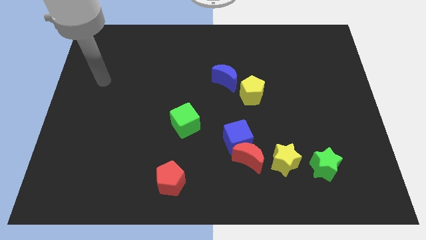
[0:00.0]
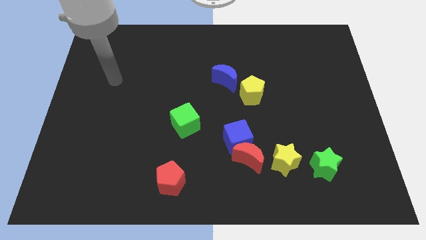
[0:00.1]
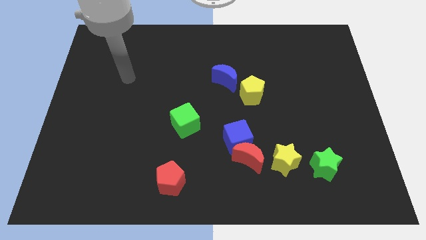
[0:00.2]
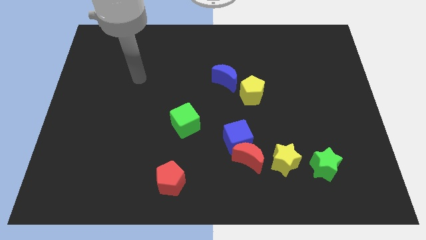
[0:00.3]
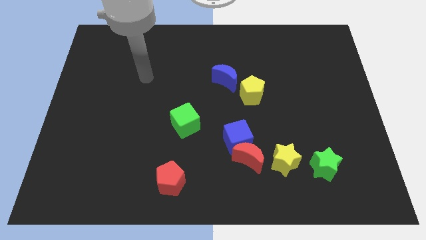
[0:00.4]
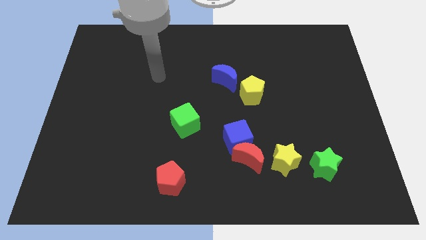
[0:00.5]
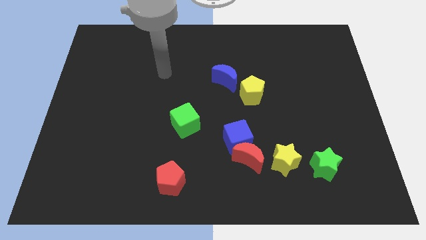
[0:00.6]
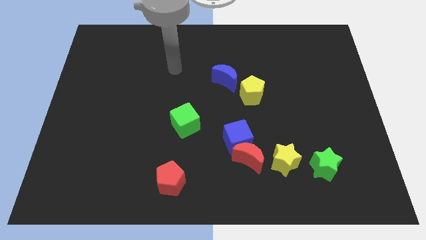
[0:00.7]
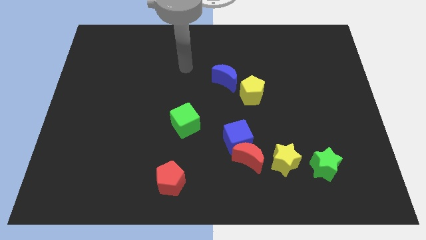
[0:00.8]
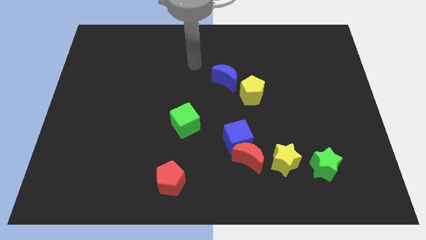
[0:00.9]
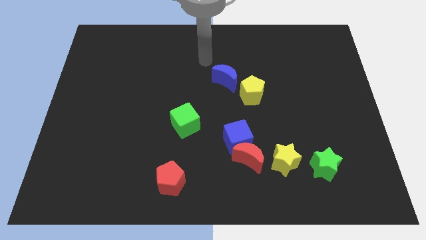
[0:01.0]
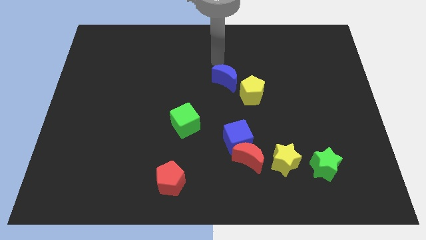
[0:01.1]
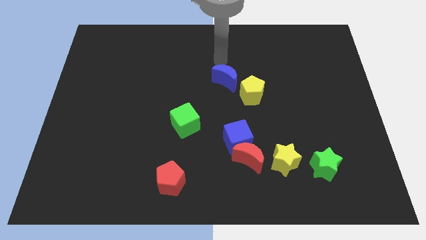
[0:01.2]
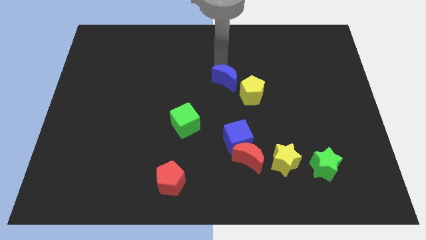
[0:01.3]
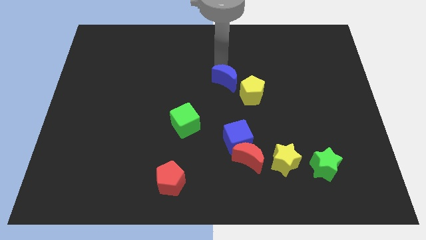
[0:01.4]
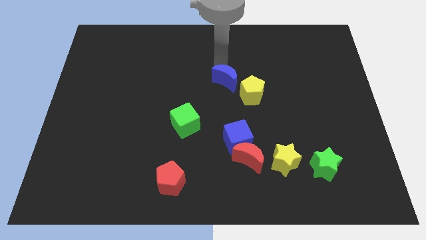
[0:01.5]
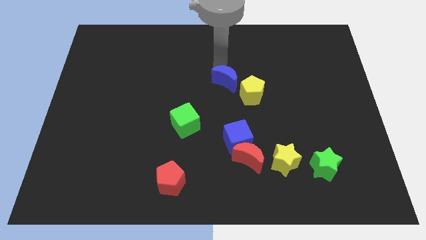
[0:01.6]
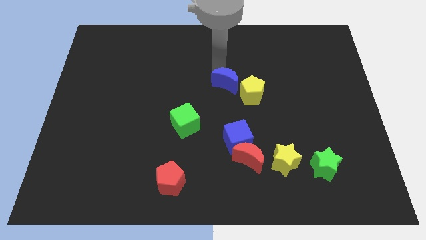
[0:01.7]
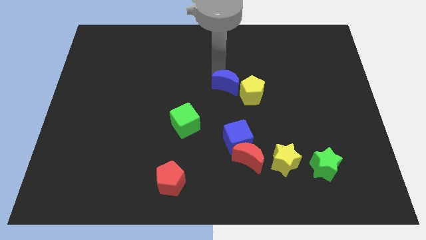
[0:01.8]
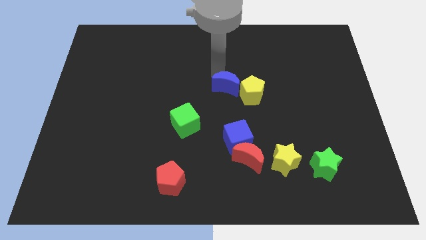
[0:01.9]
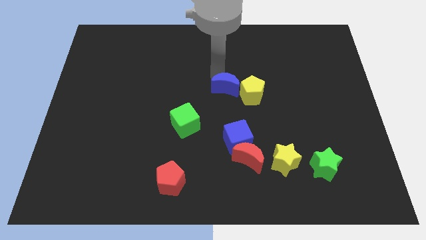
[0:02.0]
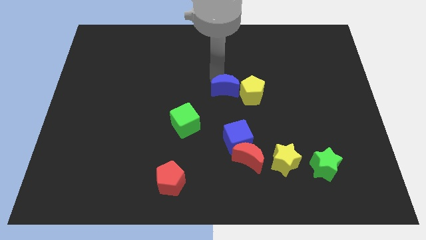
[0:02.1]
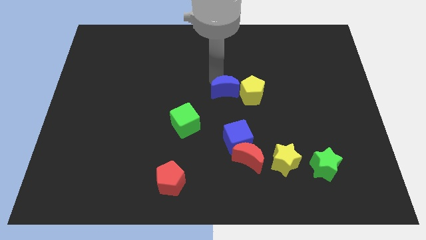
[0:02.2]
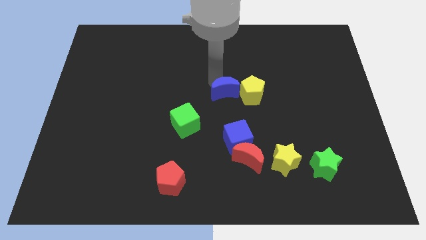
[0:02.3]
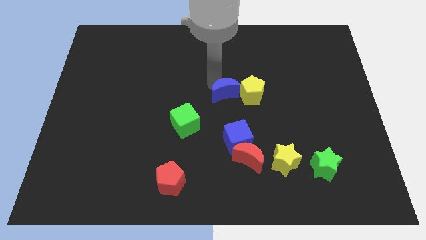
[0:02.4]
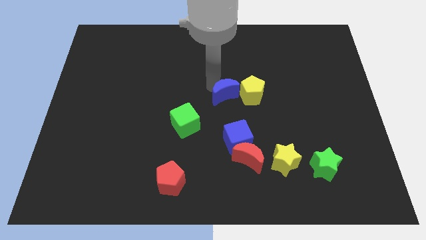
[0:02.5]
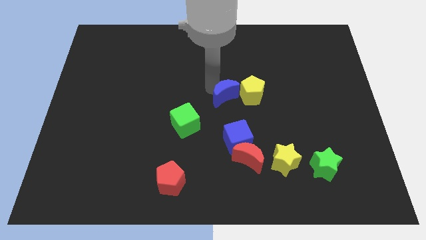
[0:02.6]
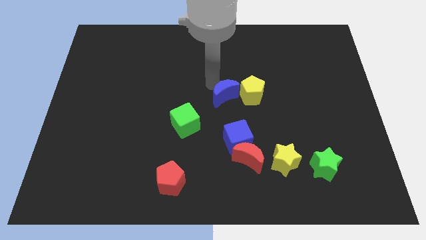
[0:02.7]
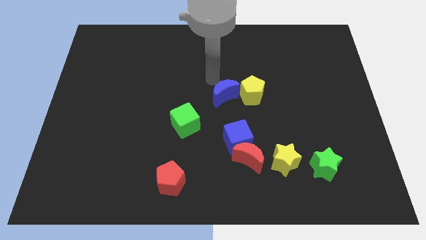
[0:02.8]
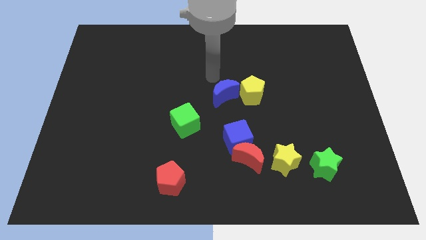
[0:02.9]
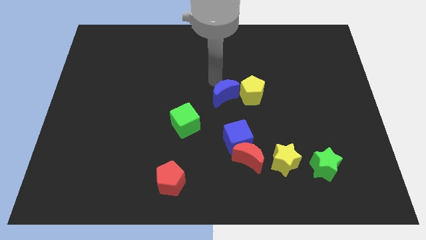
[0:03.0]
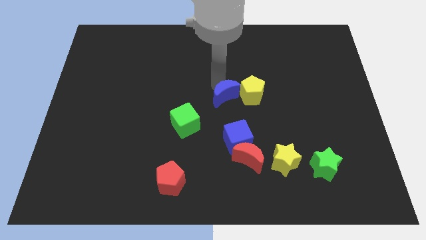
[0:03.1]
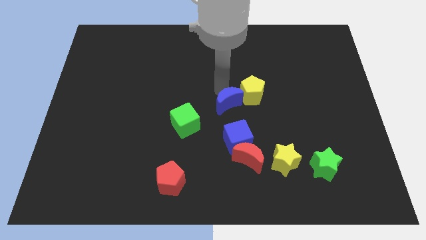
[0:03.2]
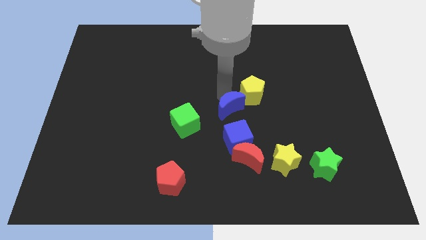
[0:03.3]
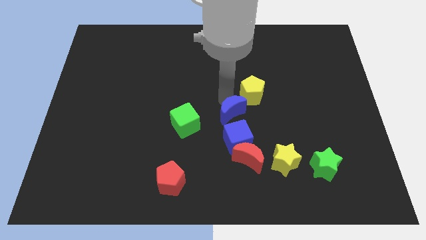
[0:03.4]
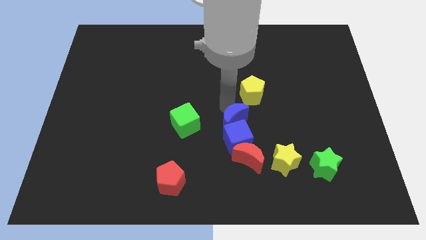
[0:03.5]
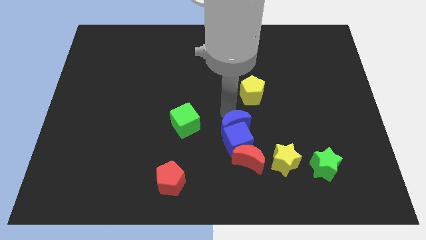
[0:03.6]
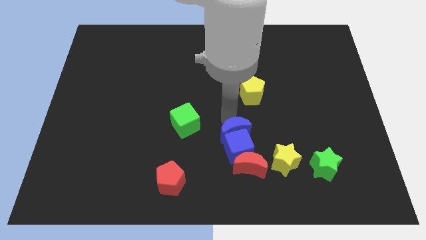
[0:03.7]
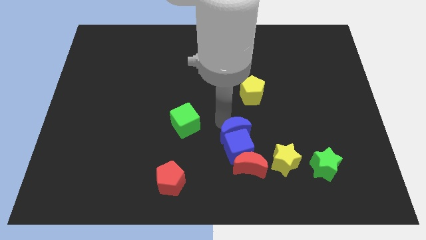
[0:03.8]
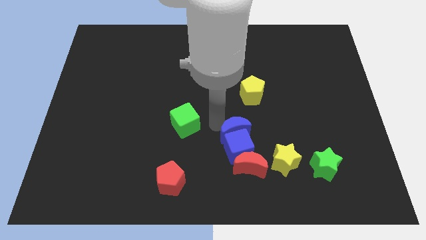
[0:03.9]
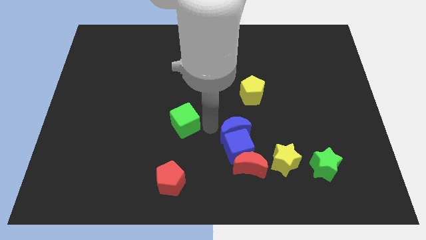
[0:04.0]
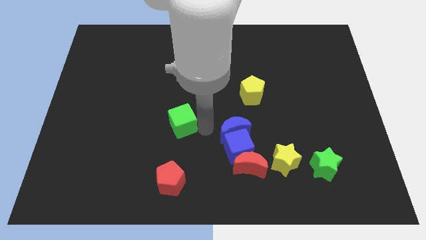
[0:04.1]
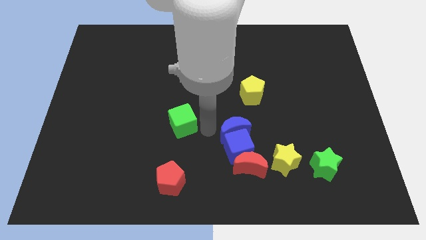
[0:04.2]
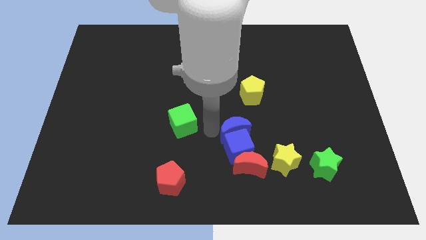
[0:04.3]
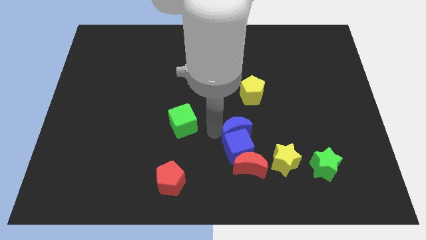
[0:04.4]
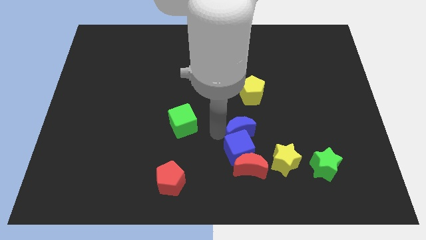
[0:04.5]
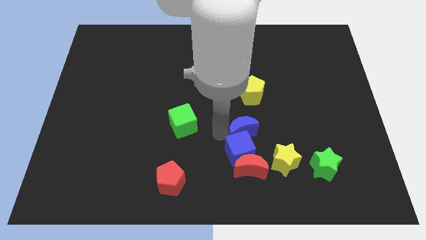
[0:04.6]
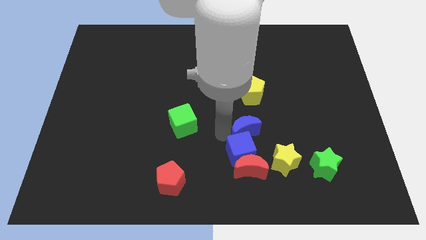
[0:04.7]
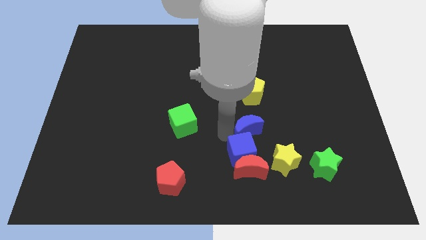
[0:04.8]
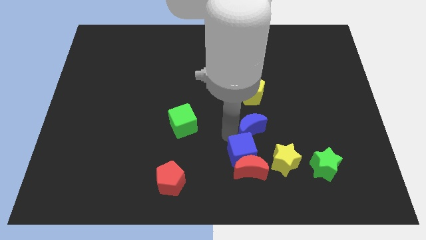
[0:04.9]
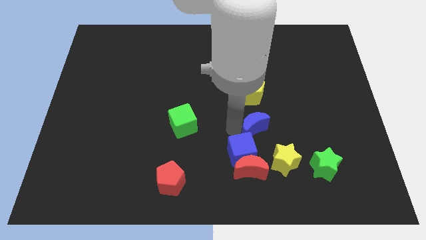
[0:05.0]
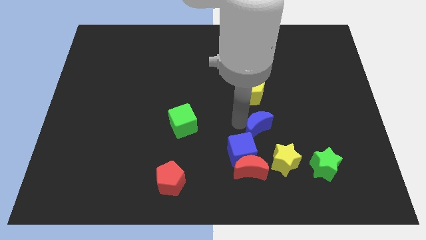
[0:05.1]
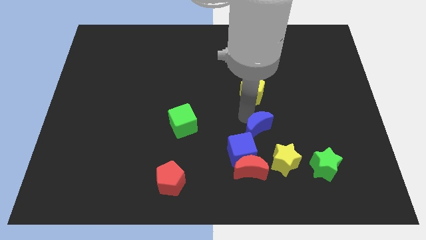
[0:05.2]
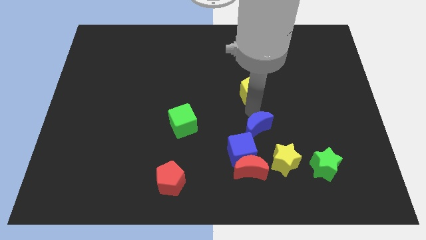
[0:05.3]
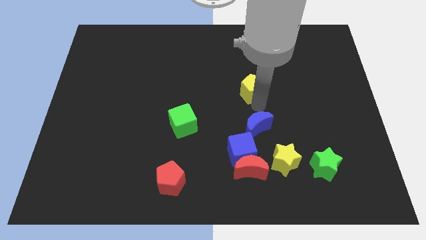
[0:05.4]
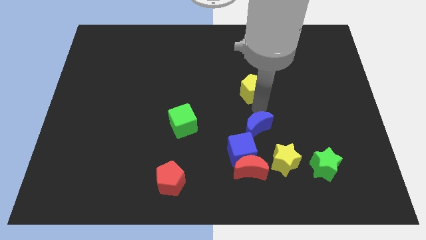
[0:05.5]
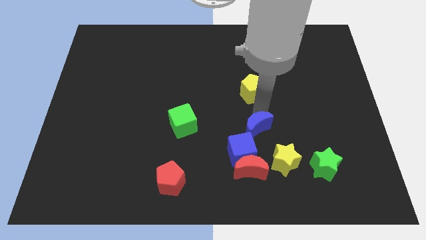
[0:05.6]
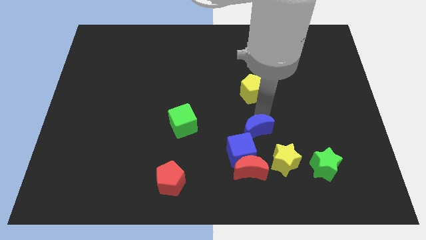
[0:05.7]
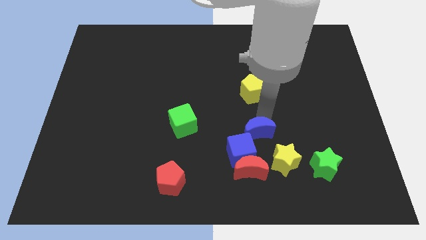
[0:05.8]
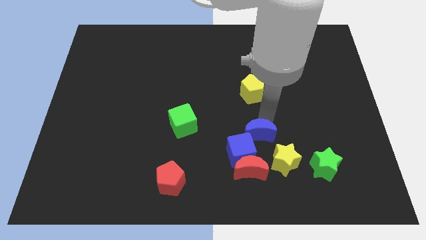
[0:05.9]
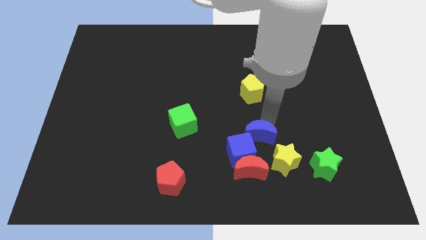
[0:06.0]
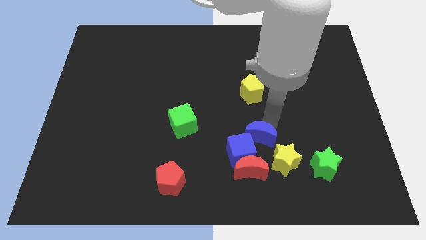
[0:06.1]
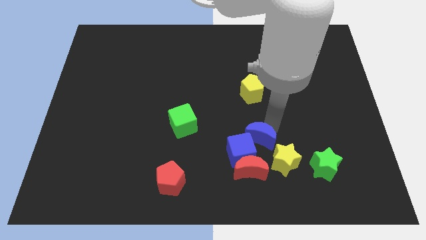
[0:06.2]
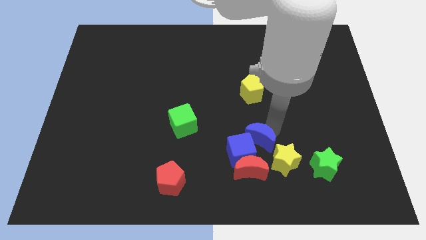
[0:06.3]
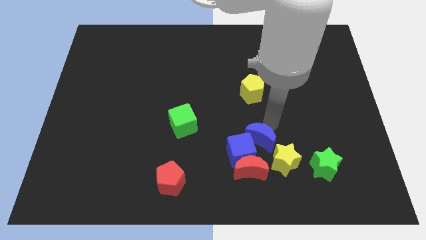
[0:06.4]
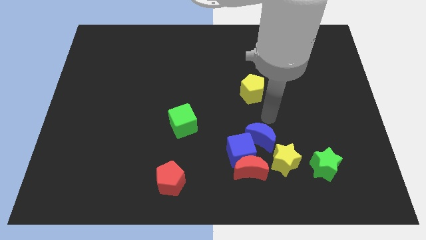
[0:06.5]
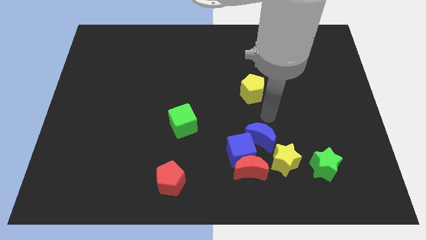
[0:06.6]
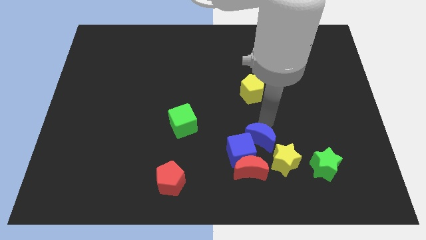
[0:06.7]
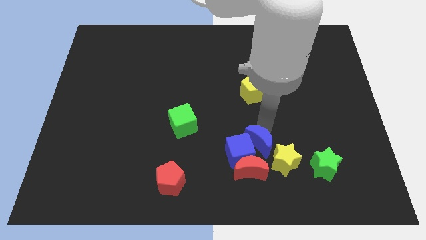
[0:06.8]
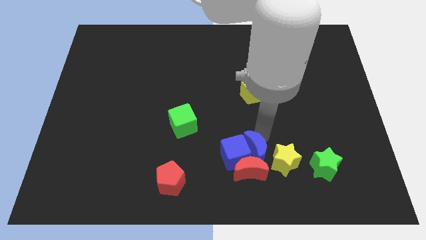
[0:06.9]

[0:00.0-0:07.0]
put the blue moon close to the red moon
